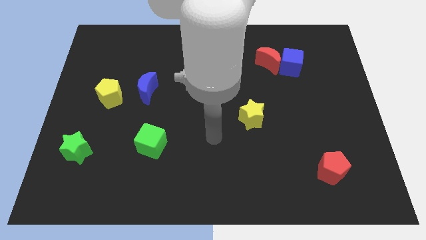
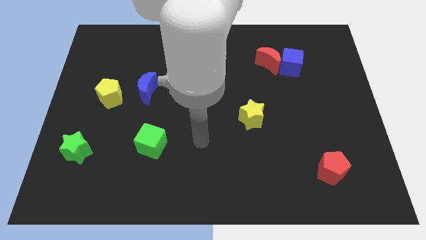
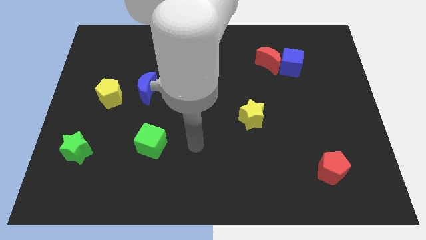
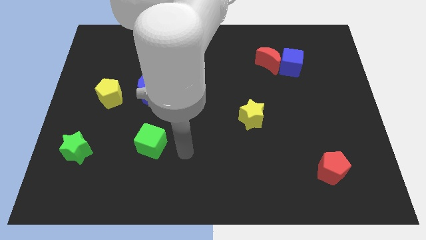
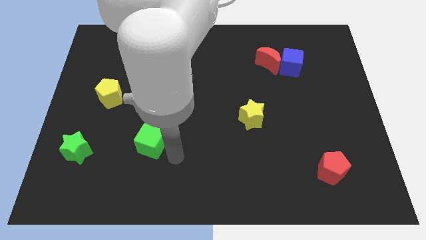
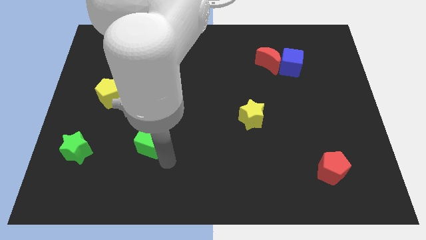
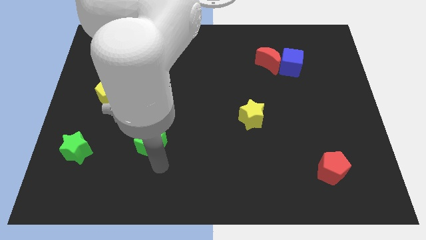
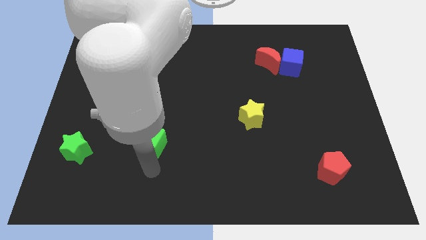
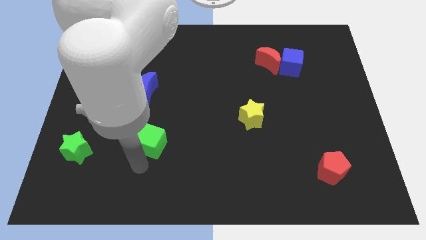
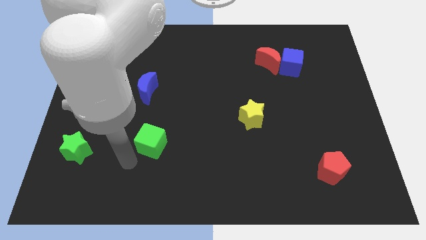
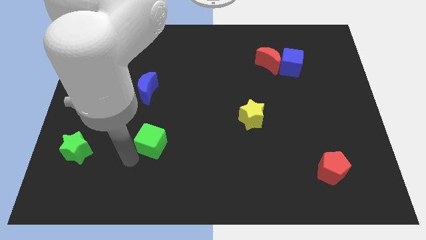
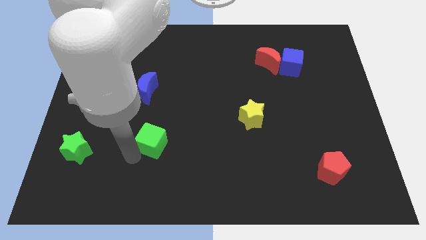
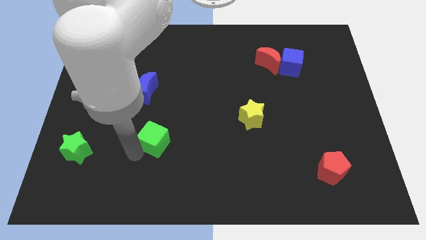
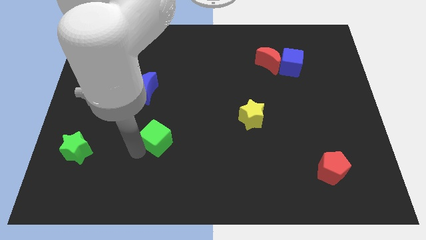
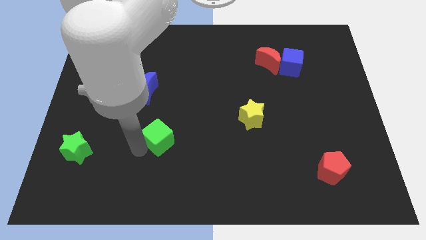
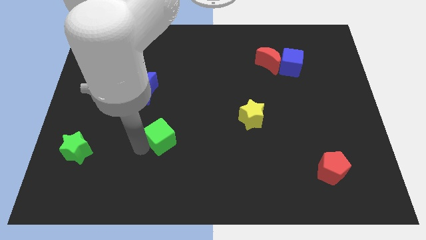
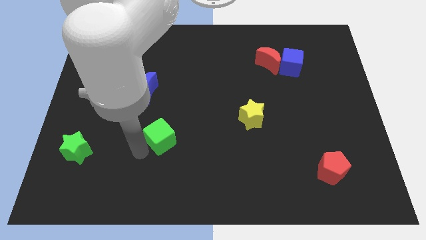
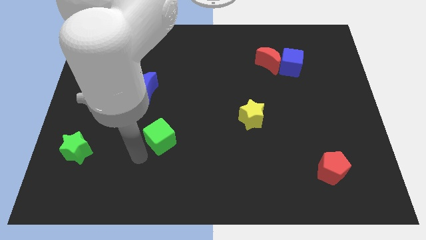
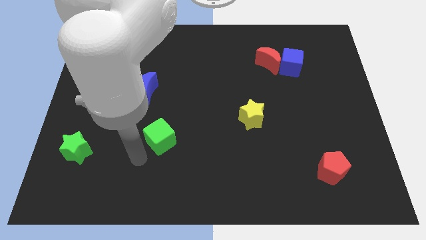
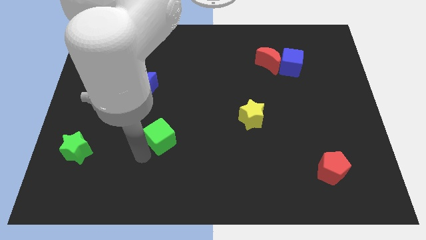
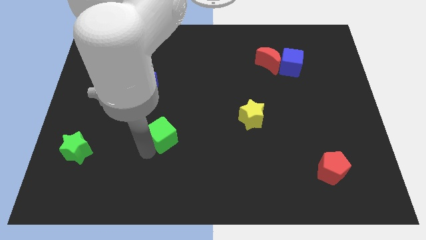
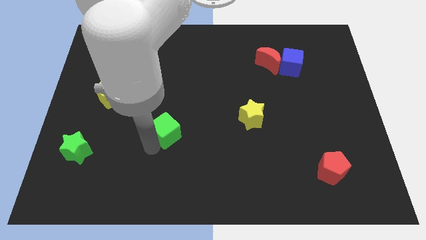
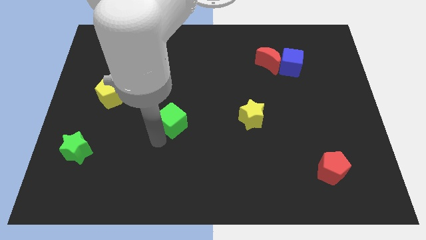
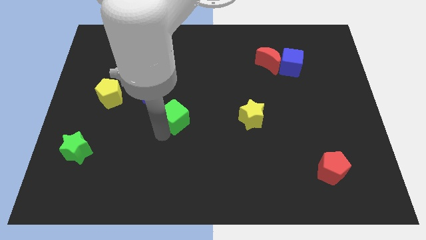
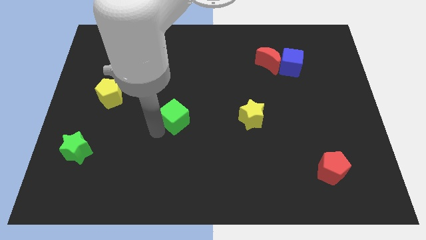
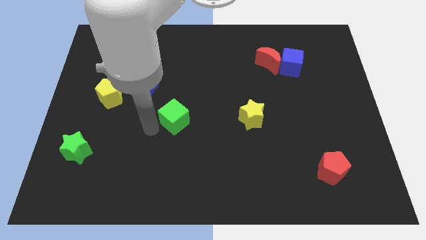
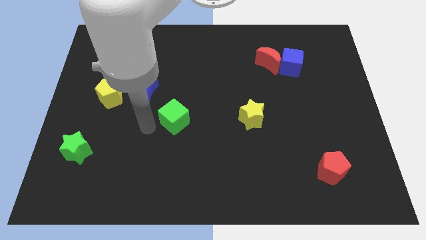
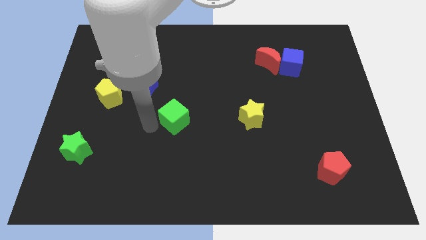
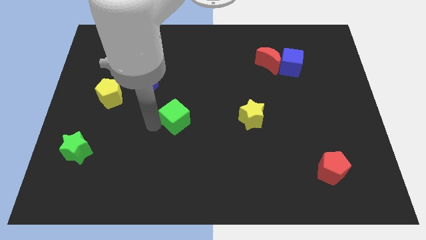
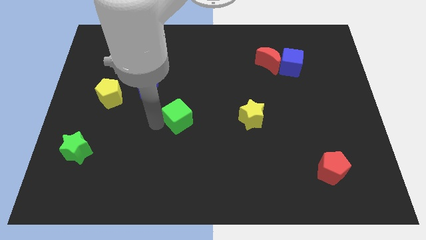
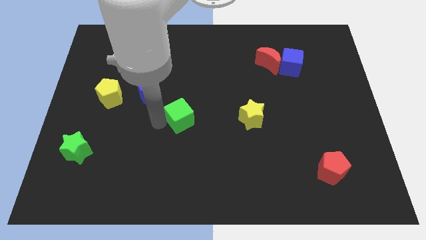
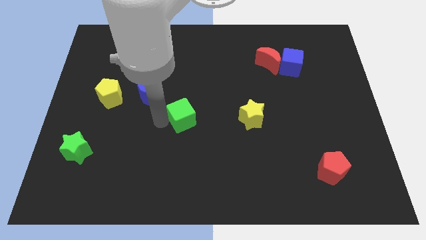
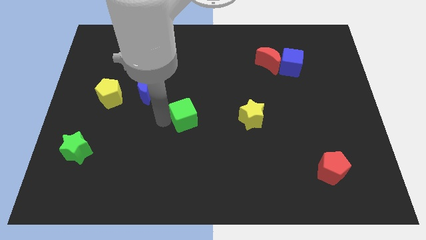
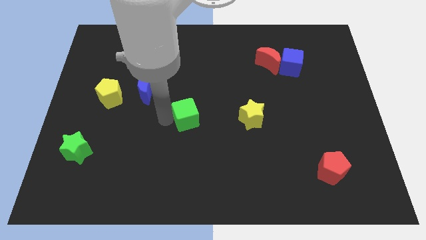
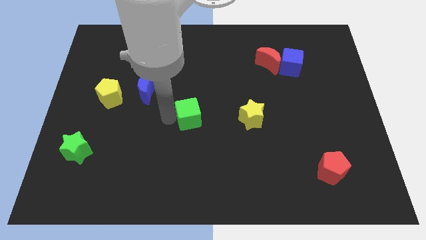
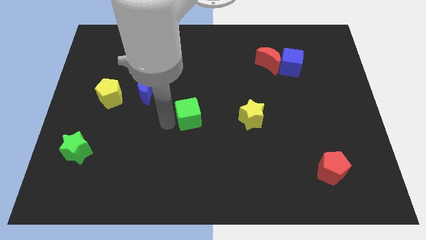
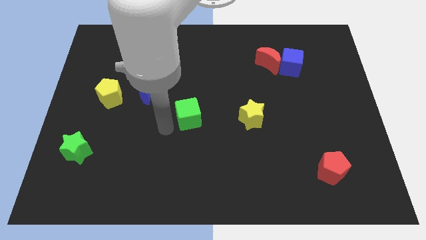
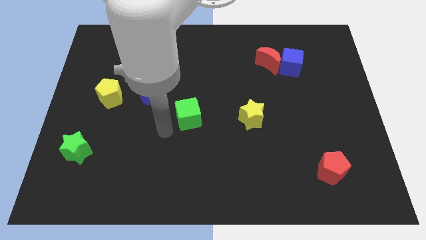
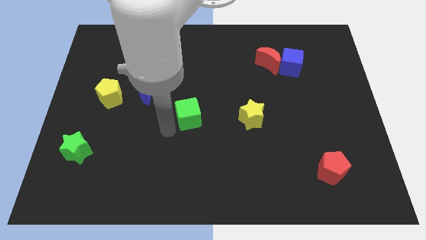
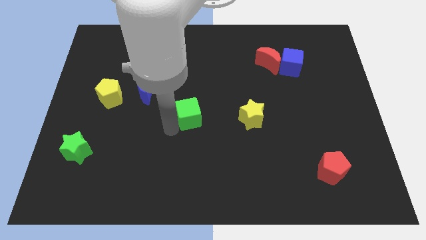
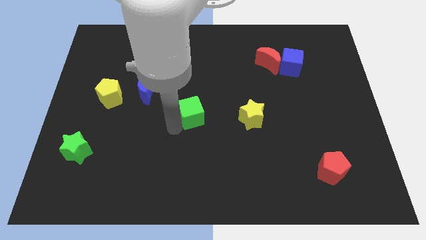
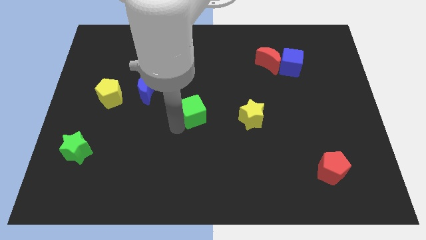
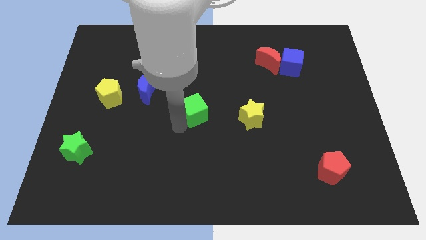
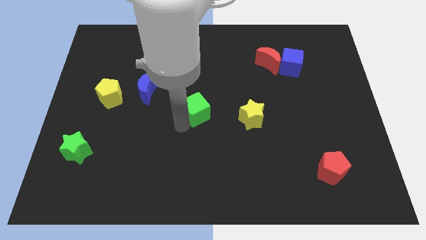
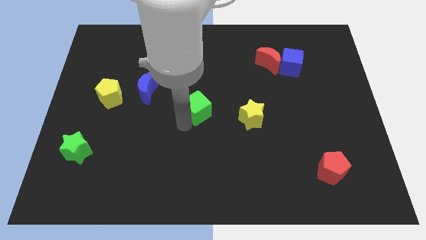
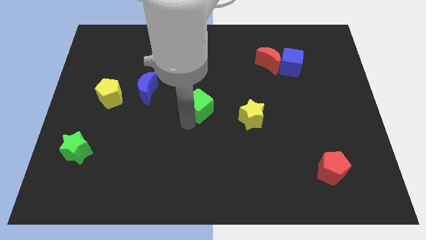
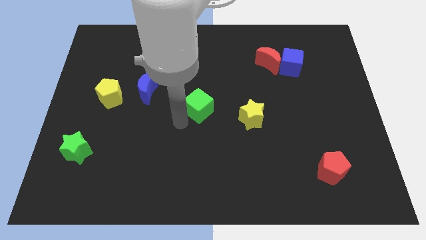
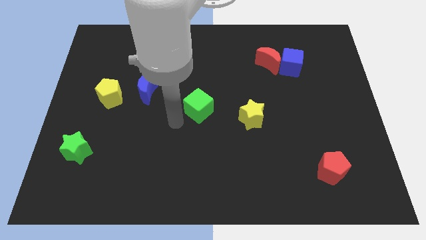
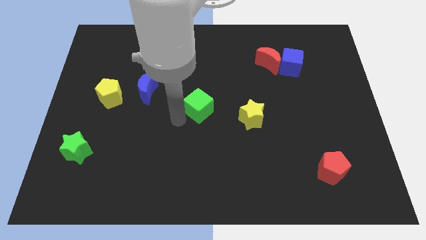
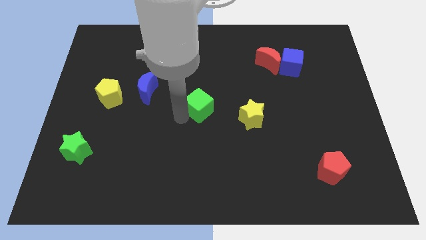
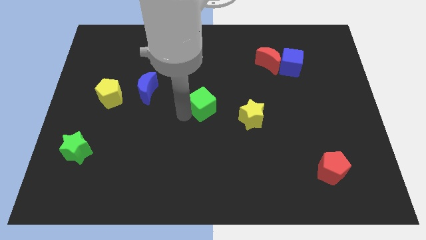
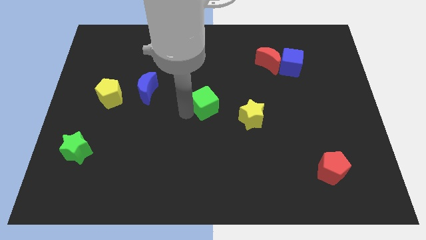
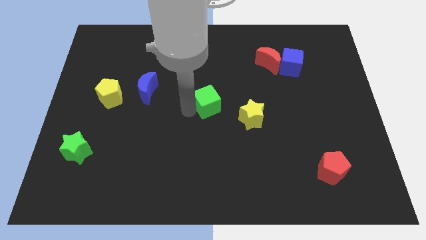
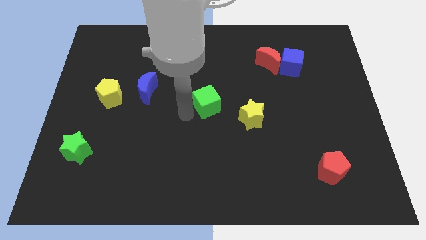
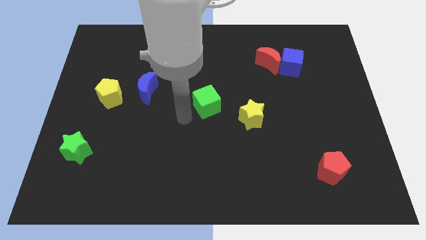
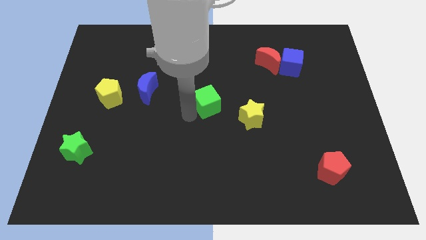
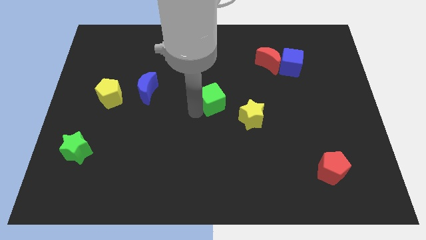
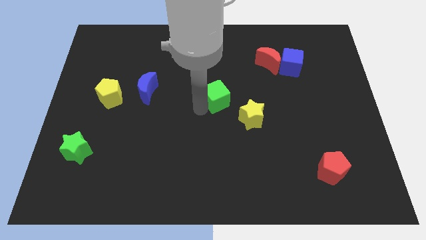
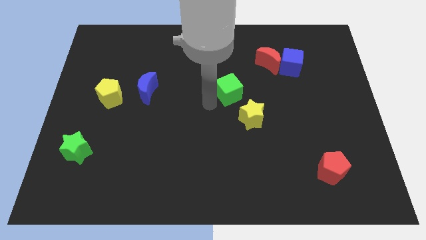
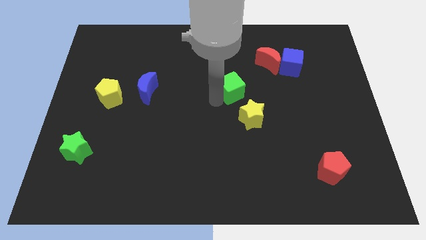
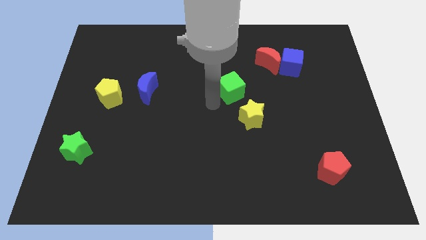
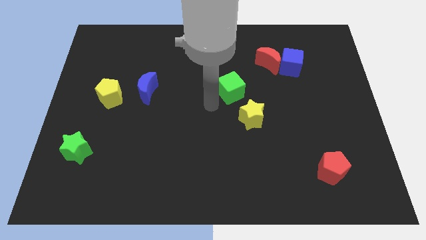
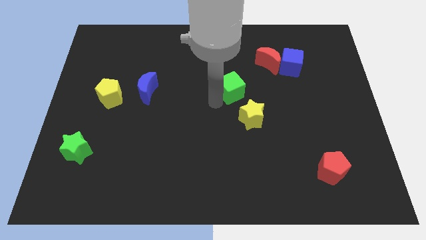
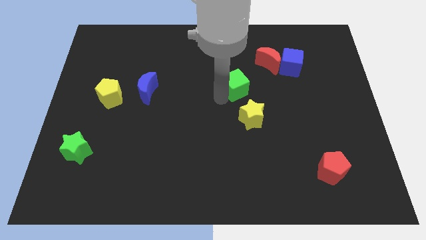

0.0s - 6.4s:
move the green cube to the bottom left side of the red moon

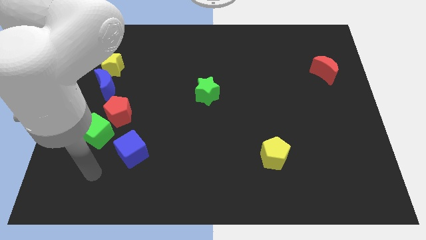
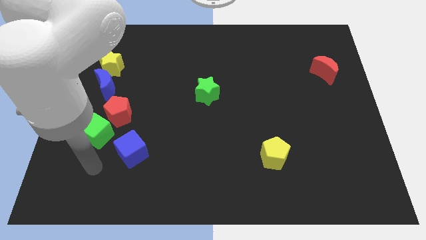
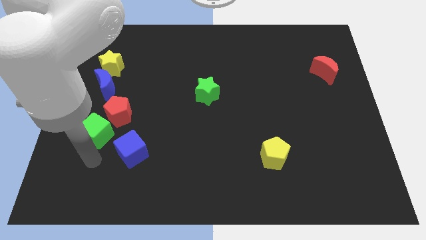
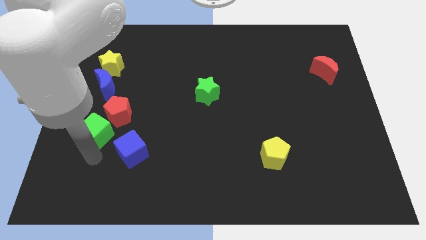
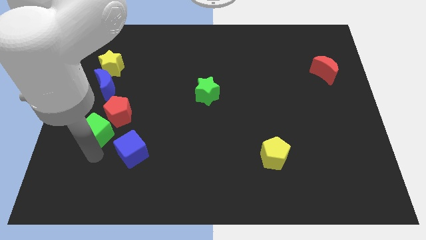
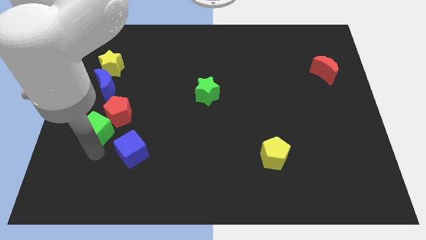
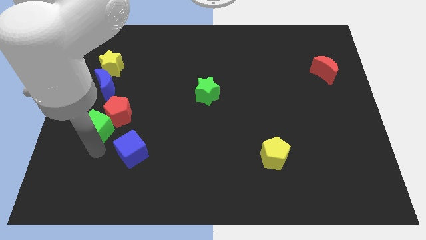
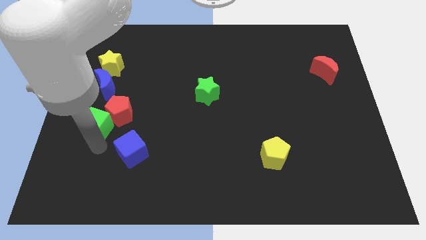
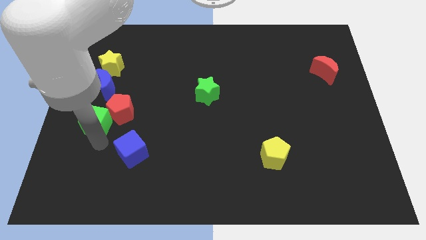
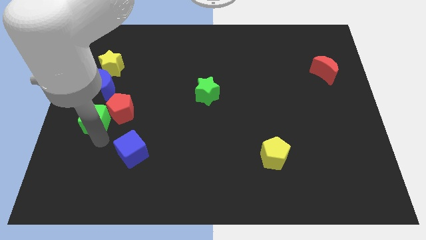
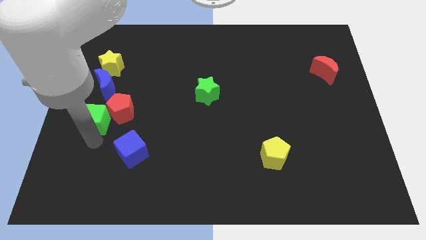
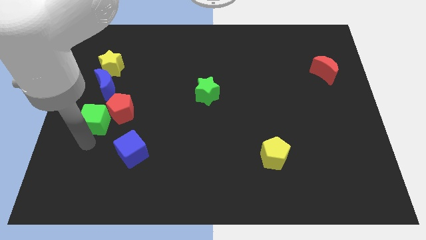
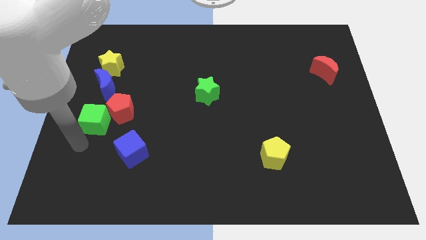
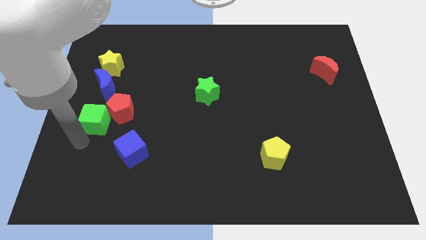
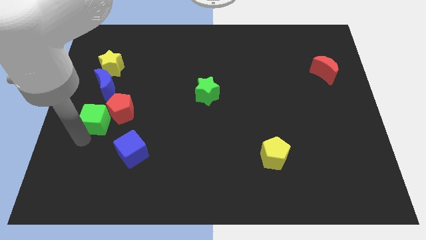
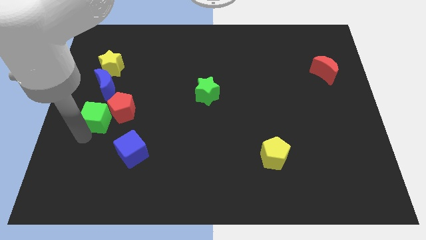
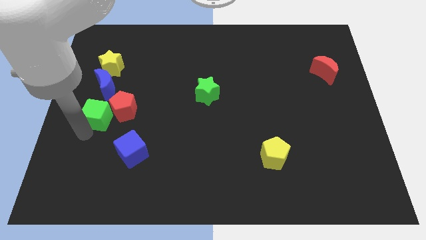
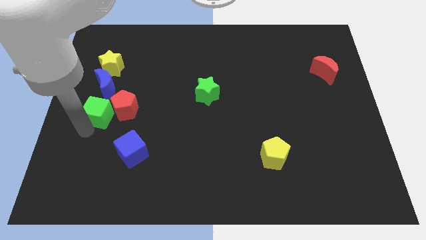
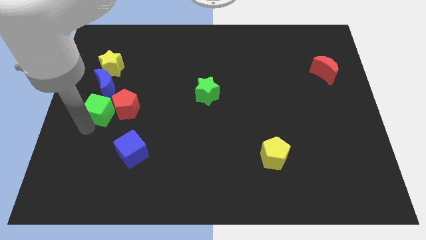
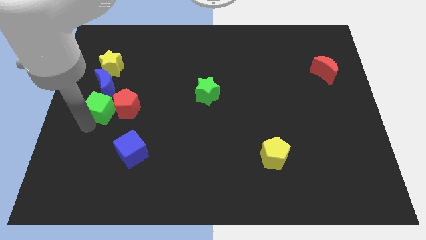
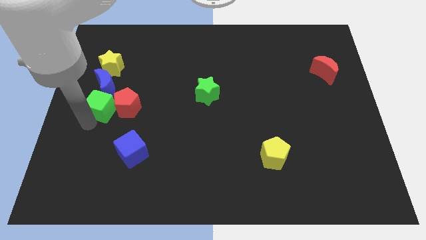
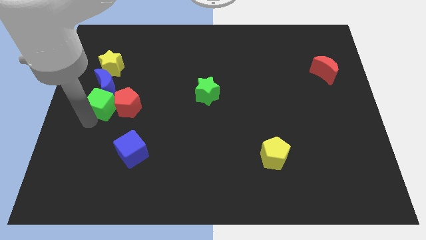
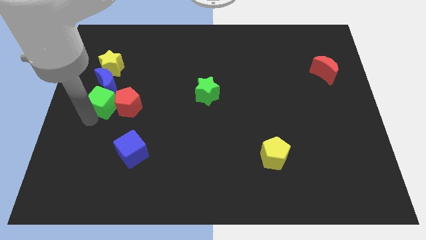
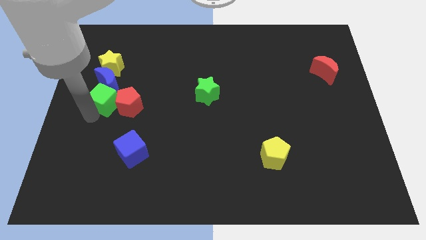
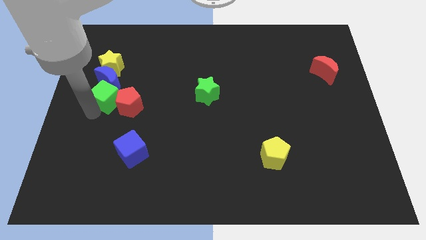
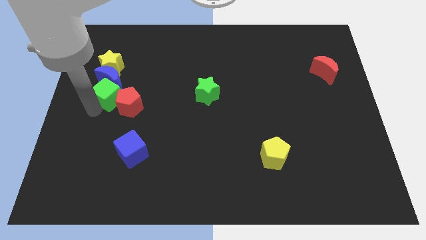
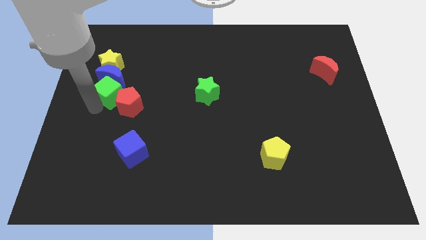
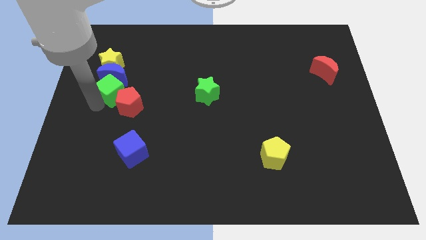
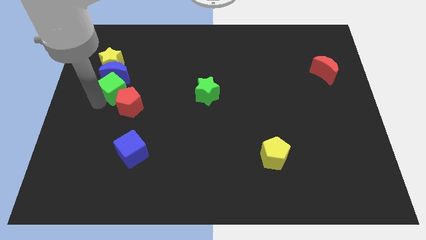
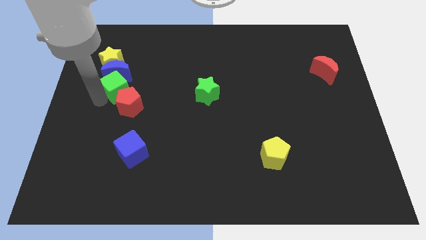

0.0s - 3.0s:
move the green cube to the bottom right of the yellow star
